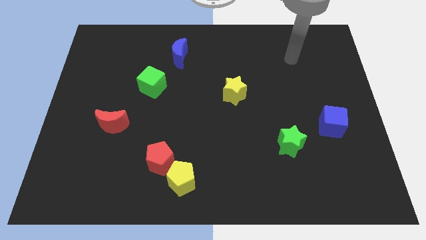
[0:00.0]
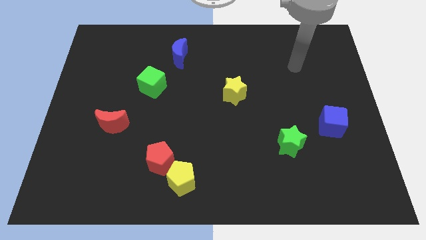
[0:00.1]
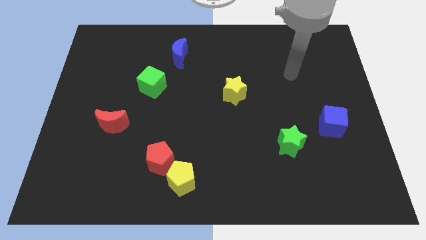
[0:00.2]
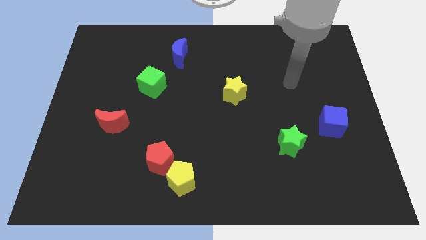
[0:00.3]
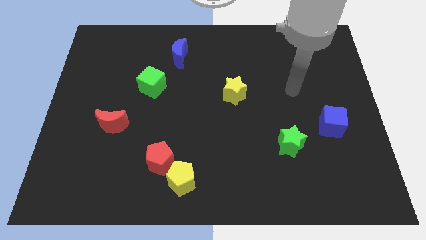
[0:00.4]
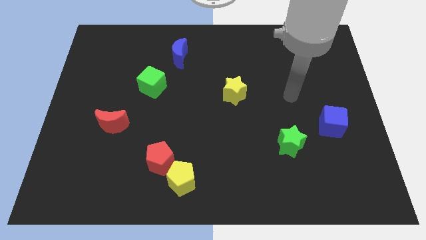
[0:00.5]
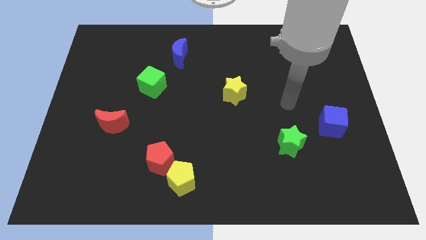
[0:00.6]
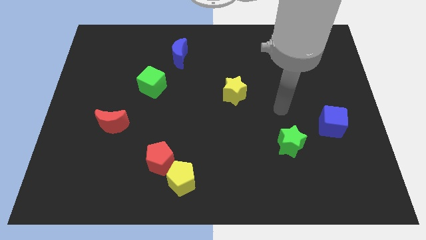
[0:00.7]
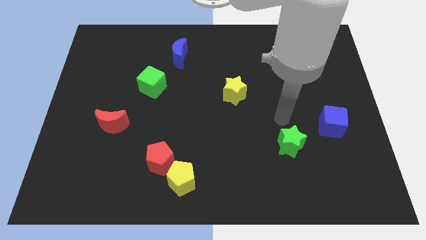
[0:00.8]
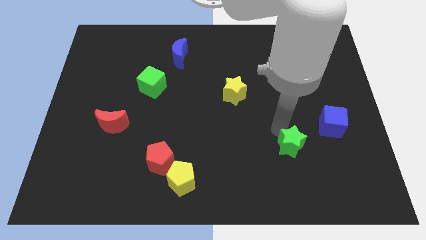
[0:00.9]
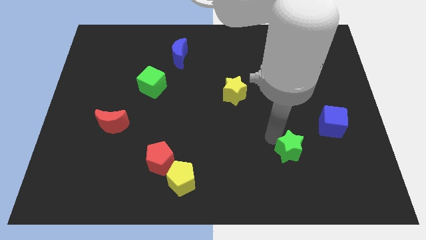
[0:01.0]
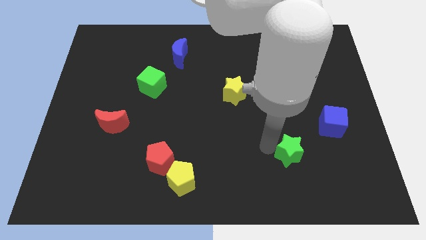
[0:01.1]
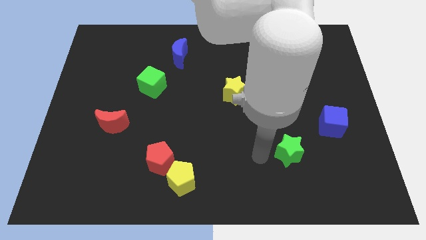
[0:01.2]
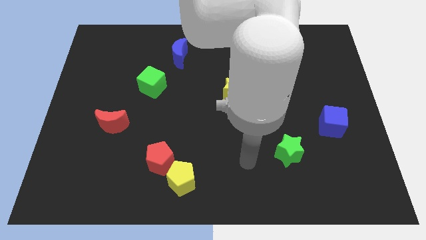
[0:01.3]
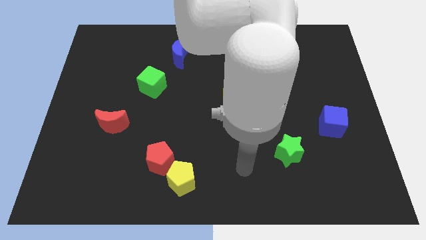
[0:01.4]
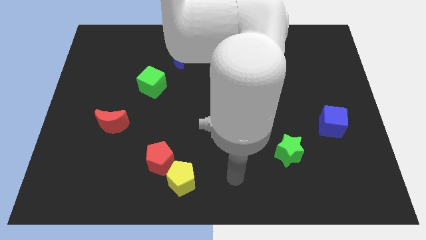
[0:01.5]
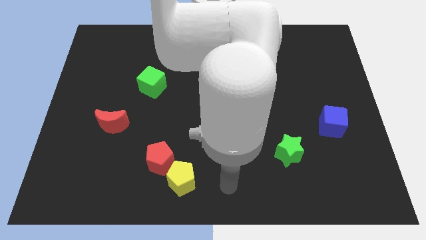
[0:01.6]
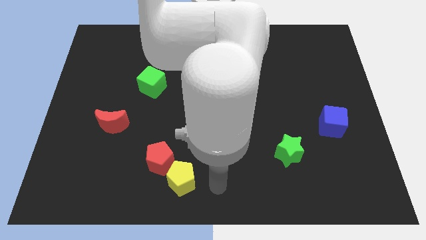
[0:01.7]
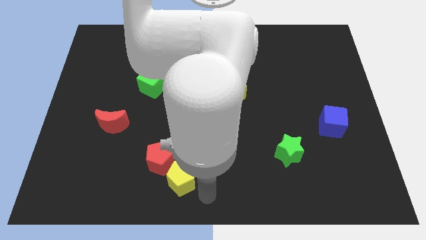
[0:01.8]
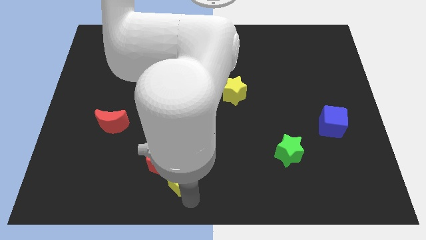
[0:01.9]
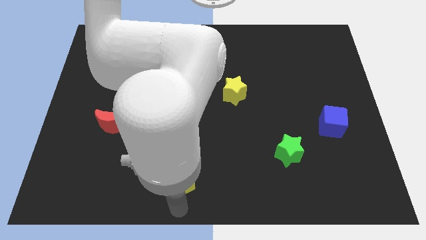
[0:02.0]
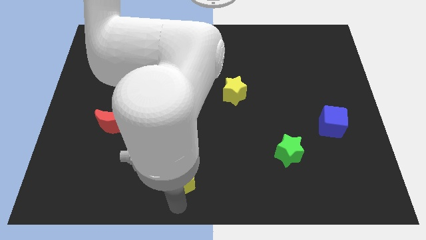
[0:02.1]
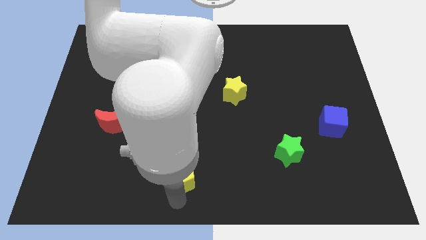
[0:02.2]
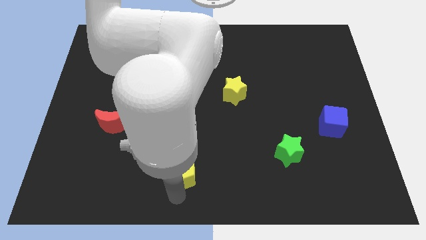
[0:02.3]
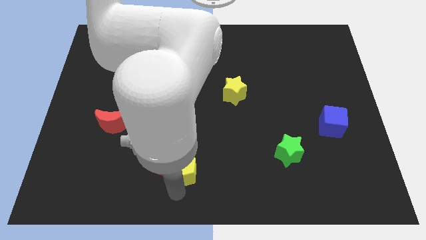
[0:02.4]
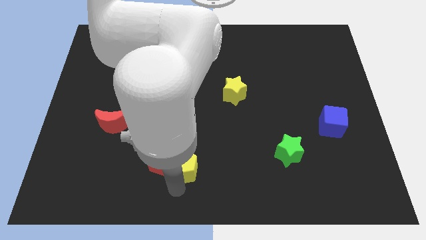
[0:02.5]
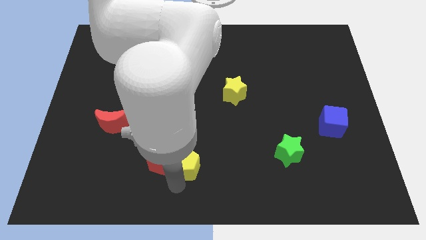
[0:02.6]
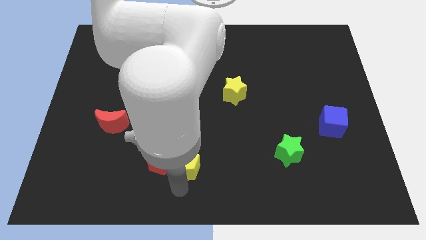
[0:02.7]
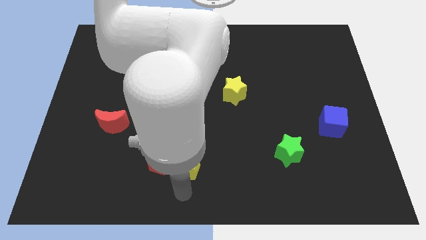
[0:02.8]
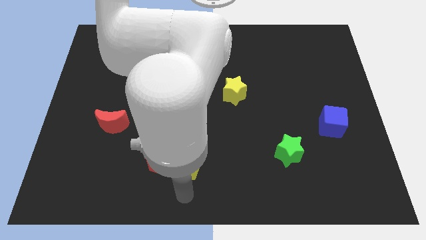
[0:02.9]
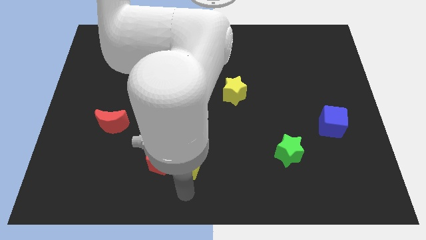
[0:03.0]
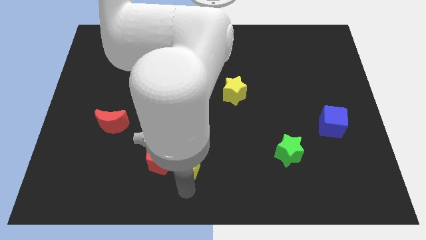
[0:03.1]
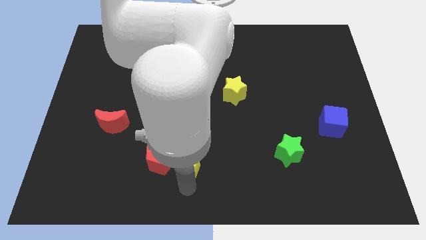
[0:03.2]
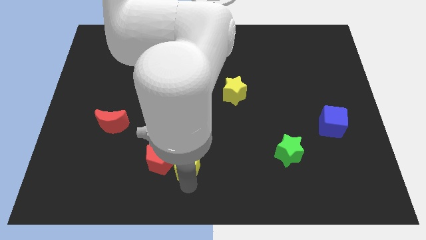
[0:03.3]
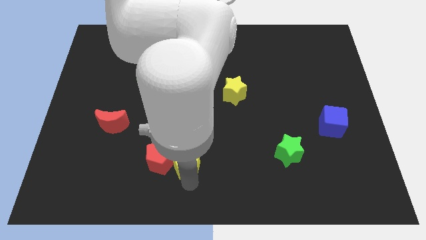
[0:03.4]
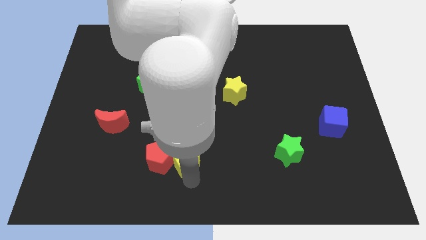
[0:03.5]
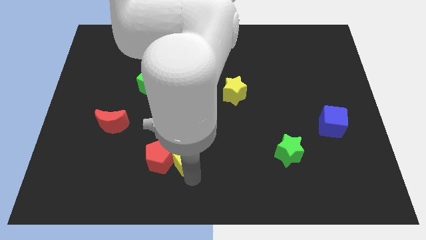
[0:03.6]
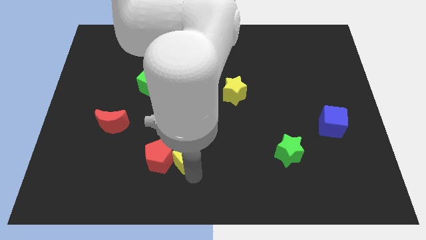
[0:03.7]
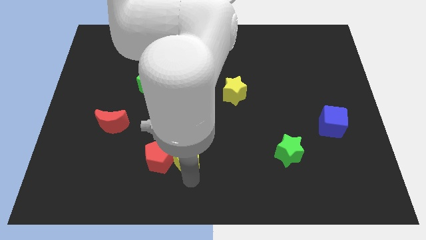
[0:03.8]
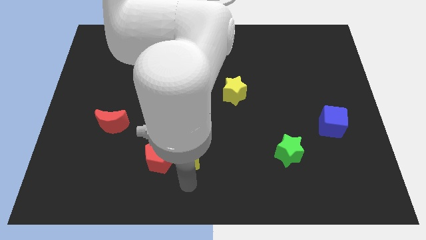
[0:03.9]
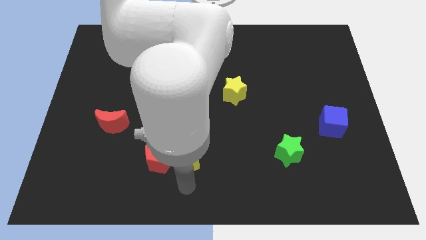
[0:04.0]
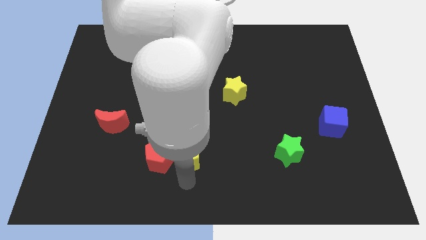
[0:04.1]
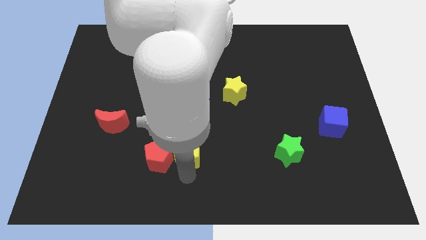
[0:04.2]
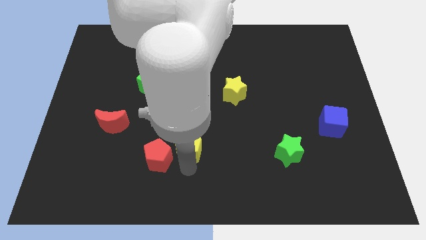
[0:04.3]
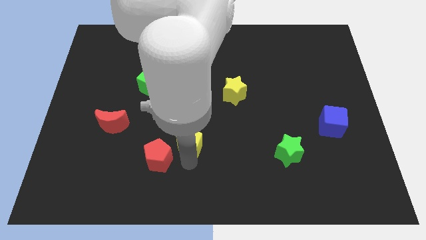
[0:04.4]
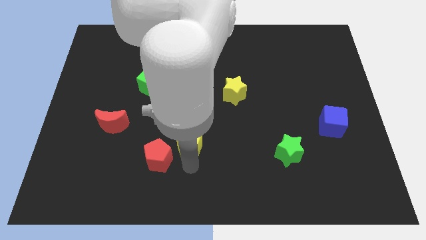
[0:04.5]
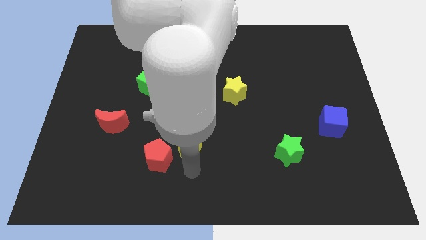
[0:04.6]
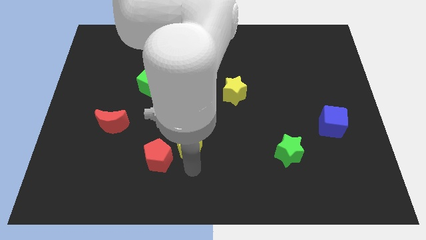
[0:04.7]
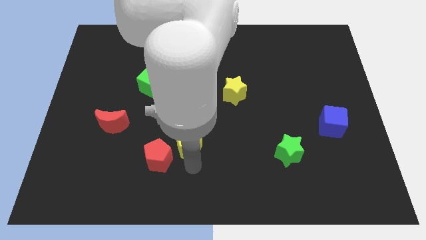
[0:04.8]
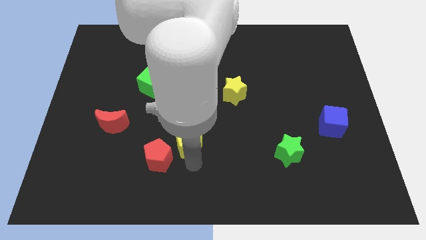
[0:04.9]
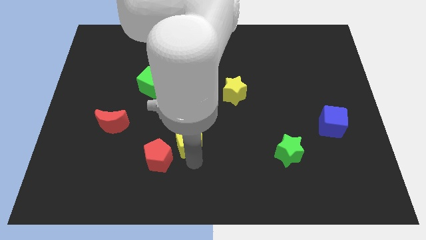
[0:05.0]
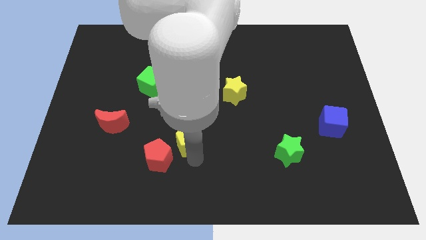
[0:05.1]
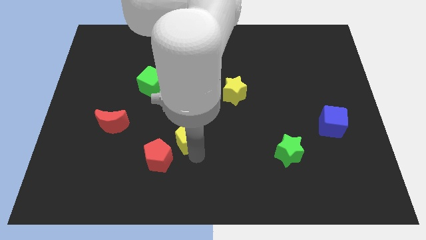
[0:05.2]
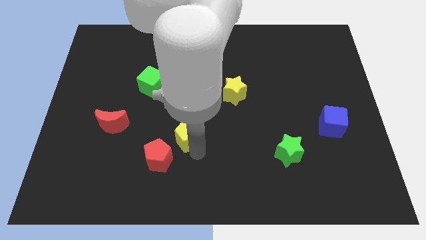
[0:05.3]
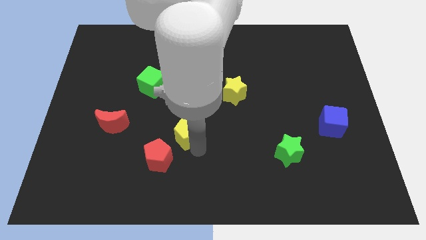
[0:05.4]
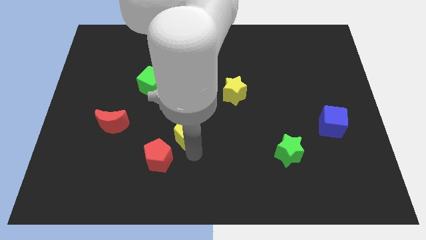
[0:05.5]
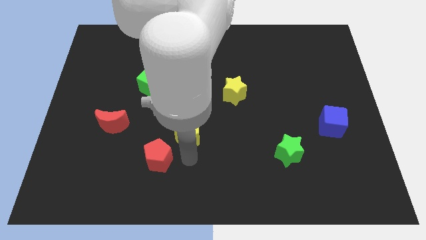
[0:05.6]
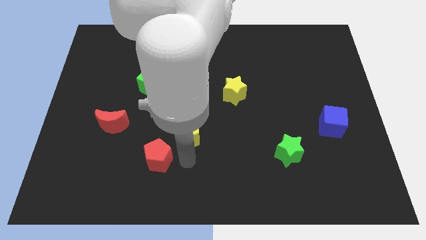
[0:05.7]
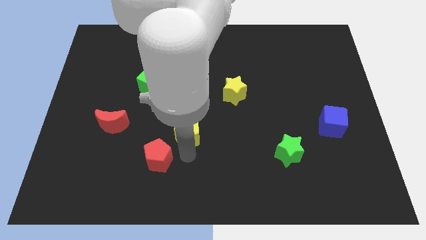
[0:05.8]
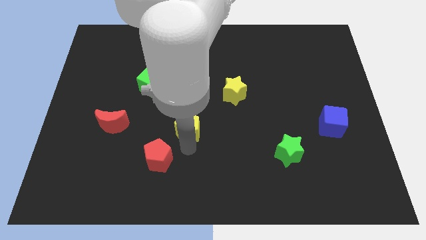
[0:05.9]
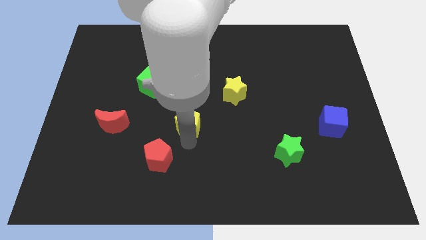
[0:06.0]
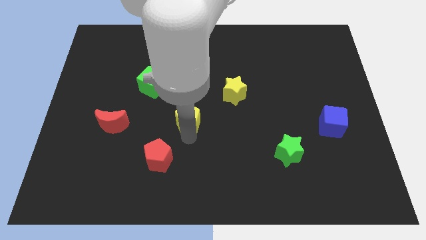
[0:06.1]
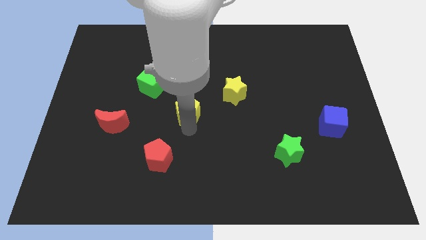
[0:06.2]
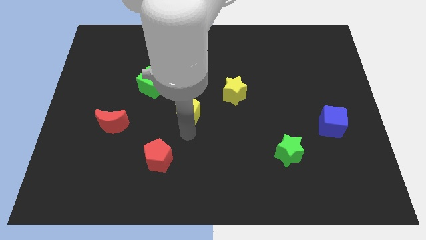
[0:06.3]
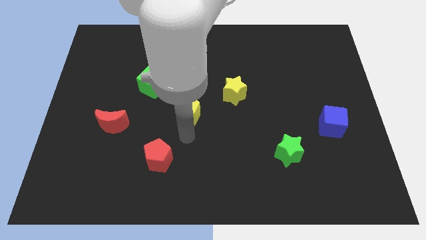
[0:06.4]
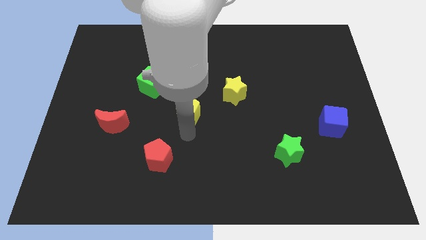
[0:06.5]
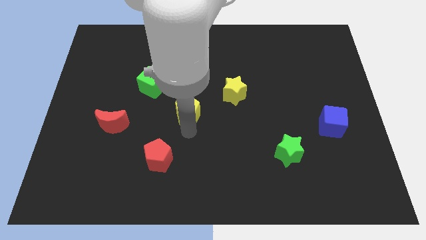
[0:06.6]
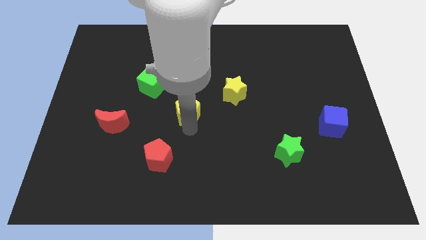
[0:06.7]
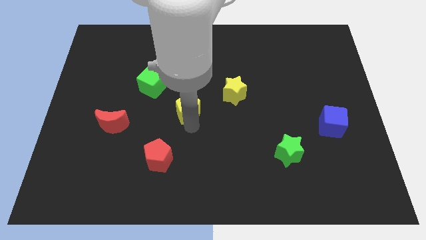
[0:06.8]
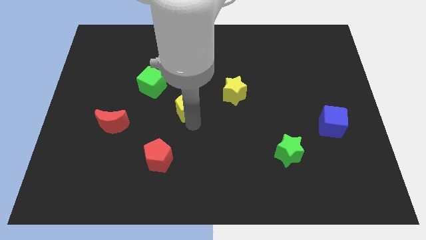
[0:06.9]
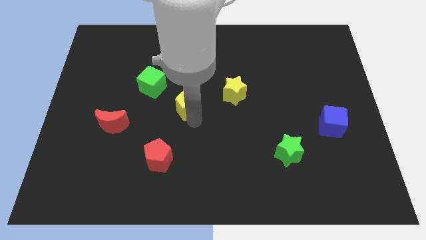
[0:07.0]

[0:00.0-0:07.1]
push the yellow pentagon left of the yellow star
